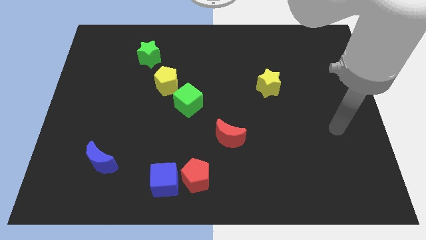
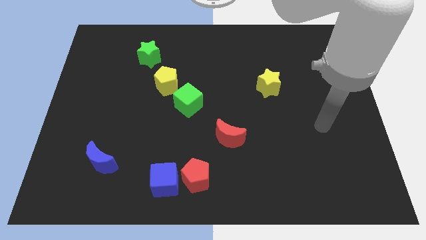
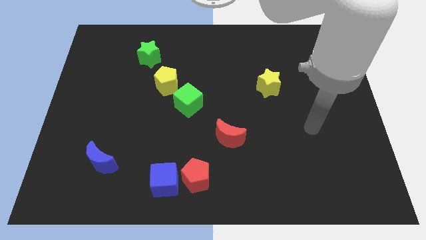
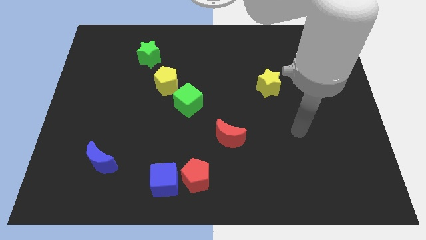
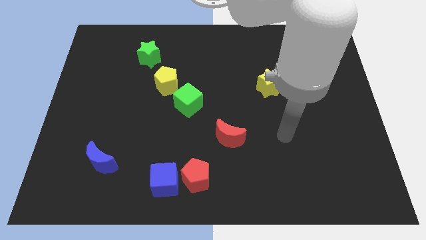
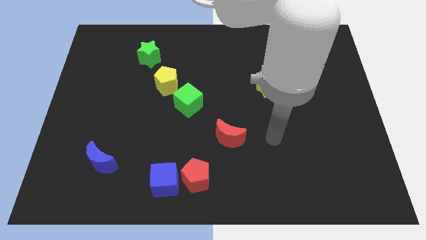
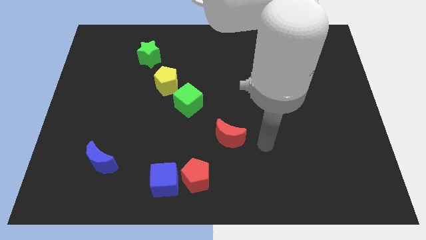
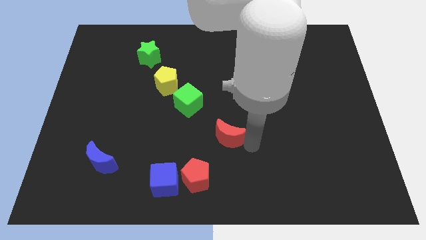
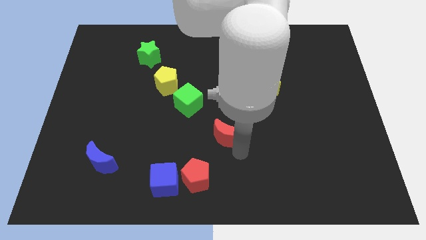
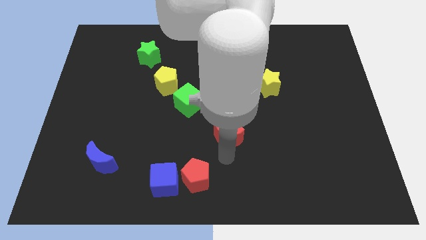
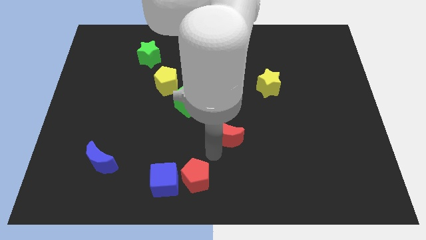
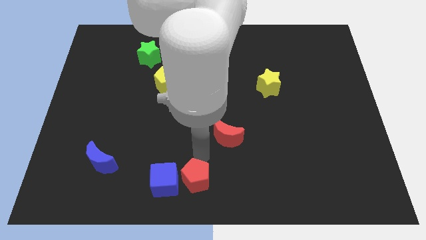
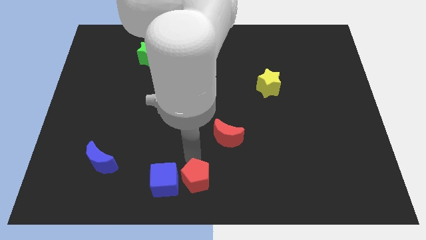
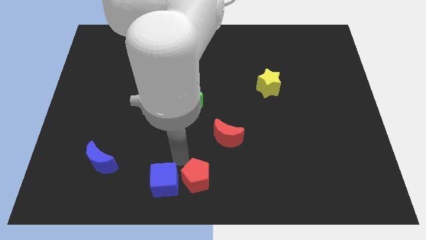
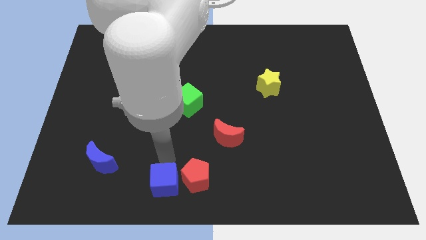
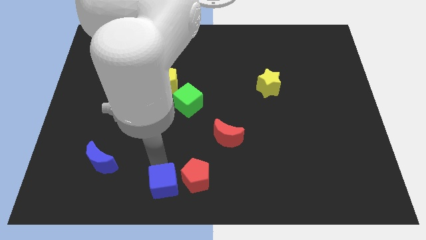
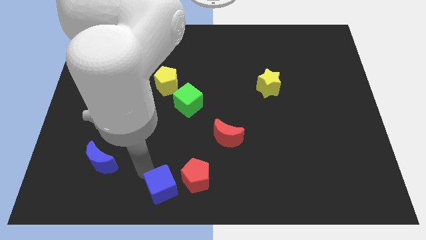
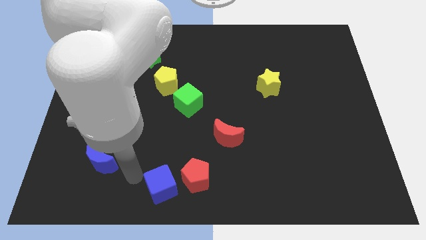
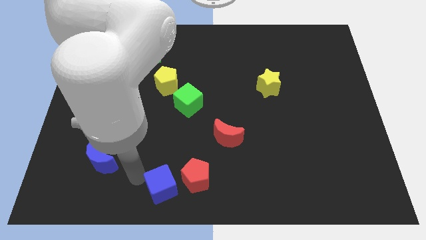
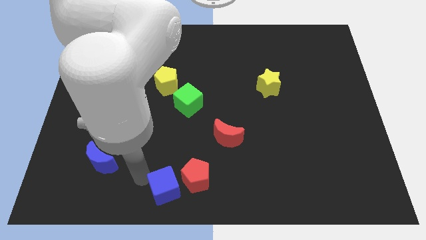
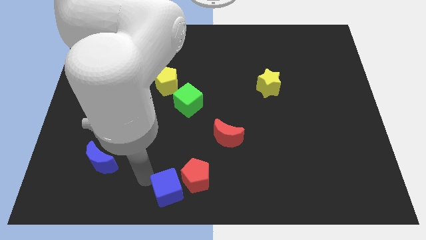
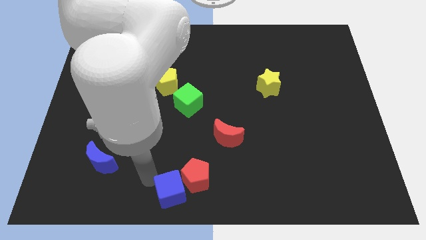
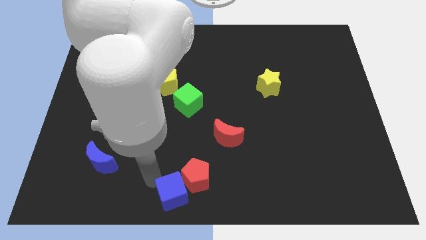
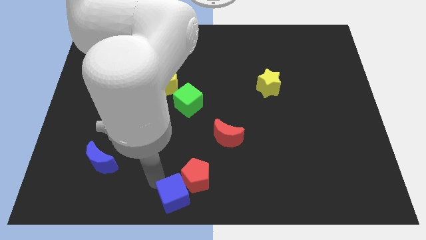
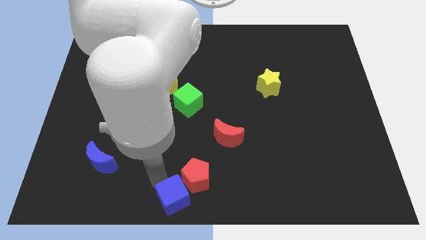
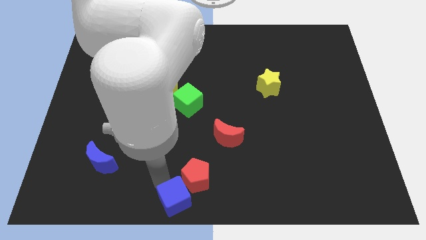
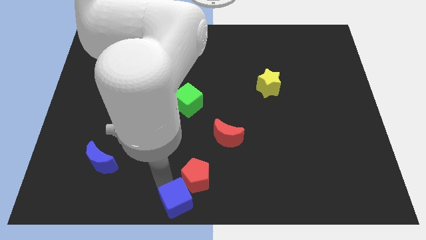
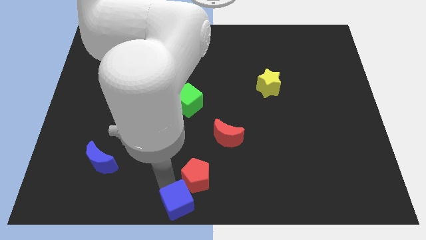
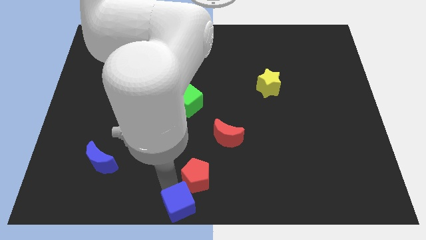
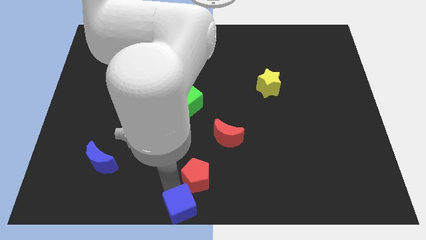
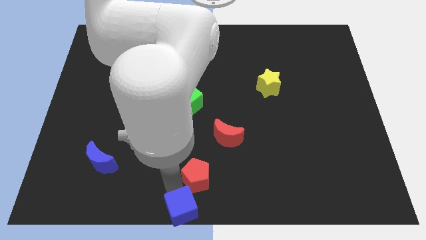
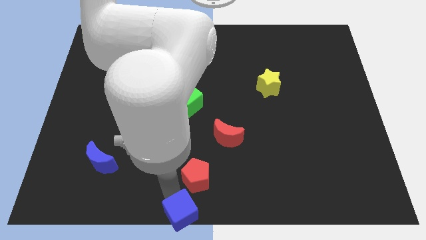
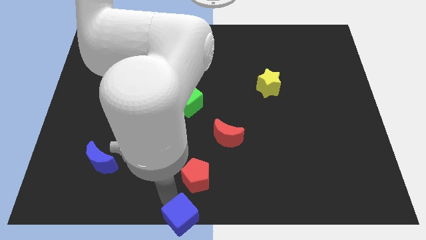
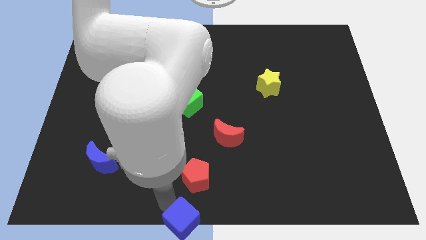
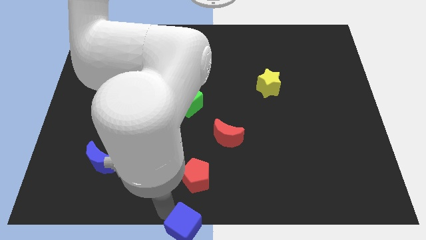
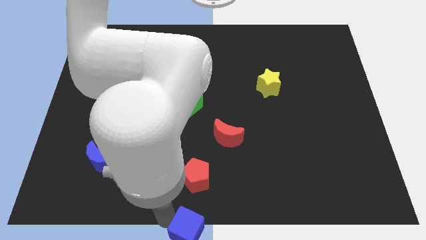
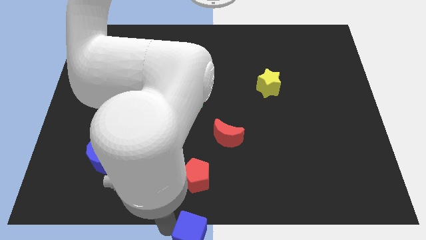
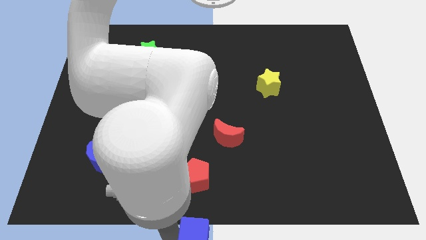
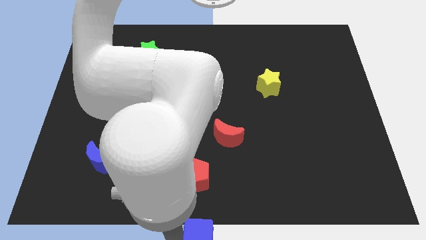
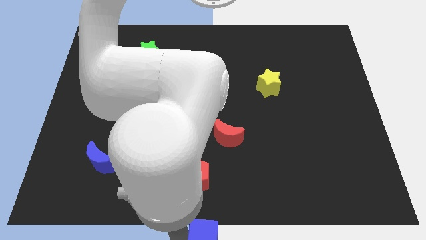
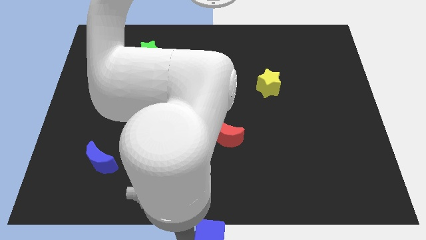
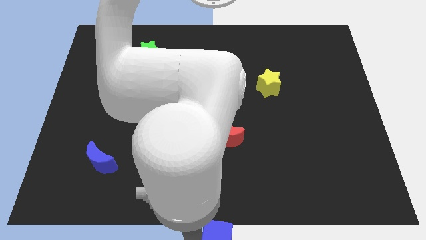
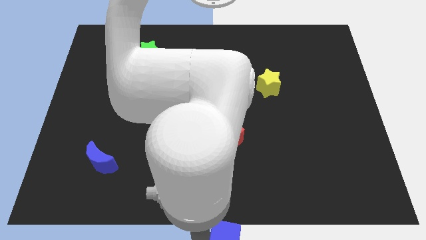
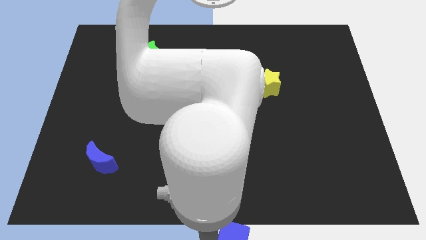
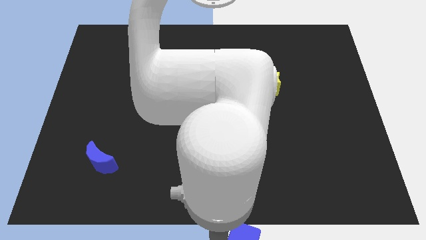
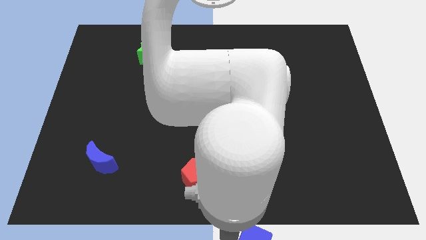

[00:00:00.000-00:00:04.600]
push the blue cube a bit right

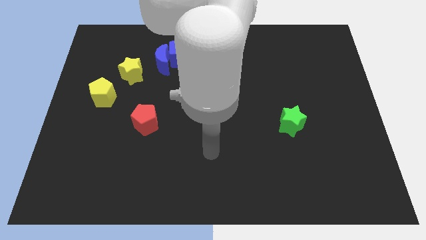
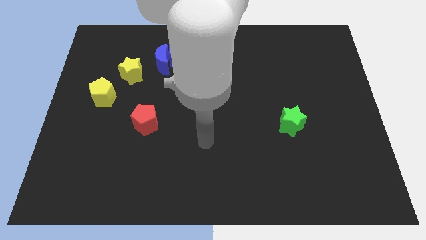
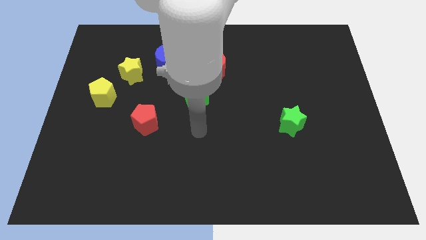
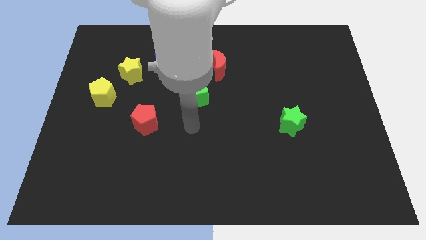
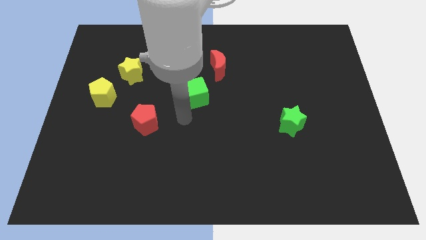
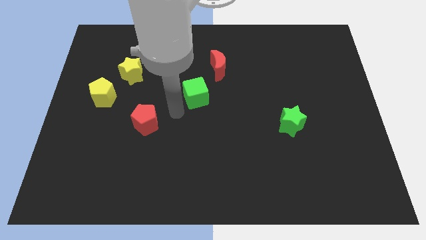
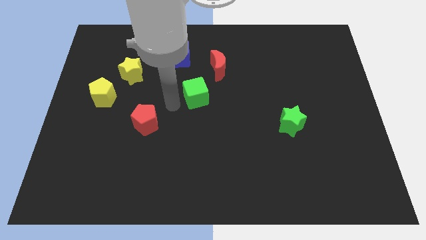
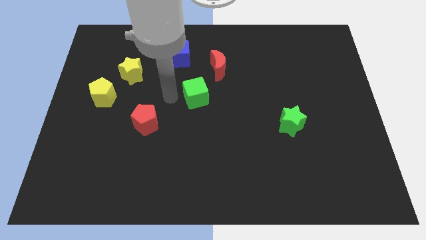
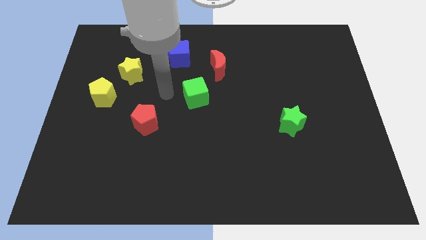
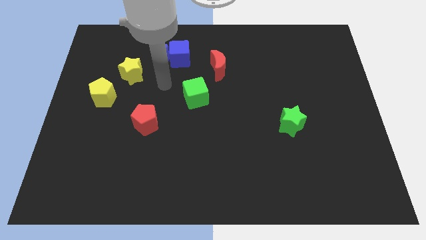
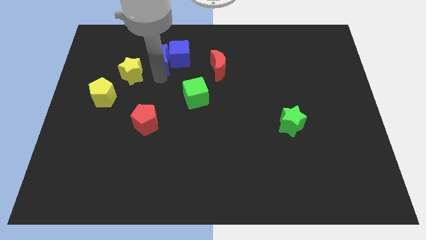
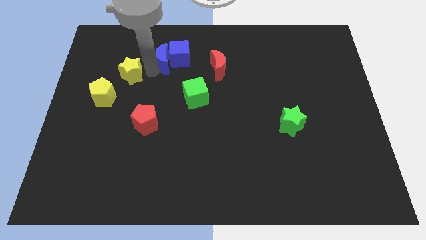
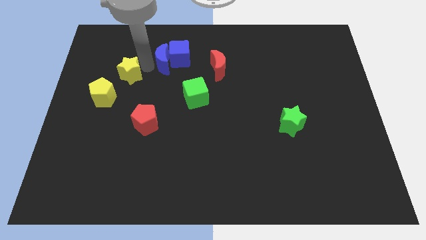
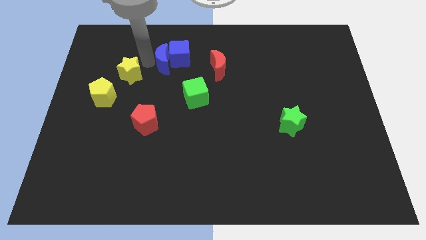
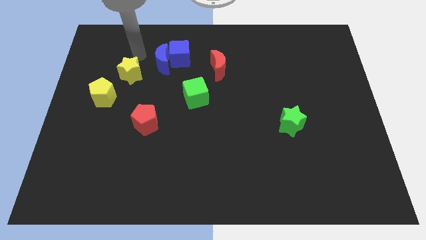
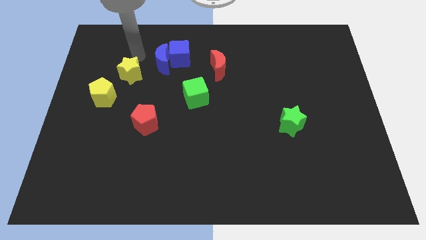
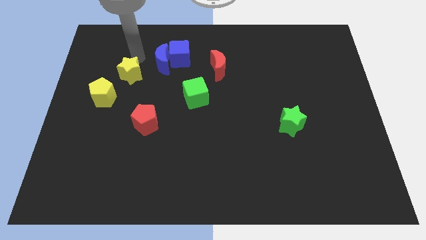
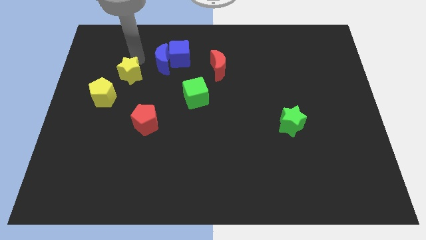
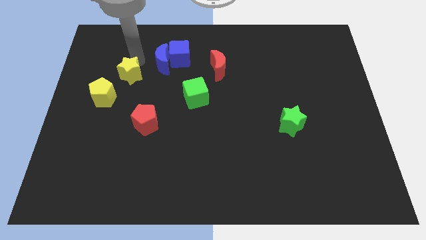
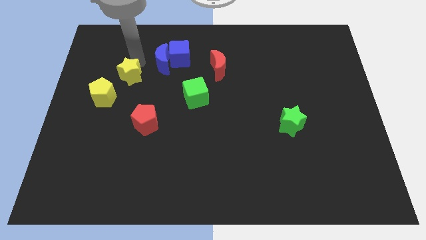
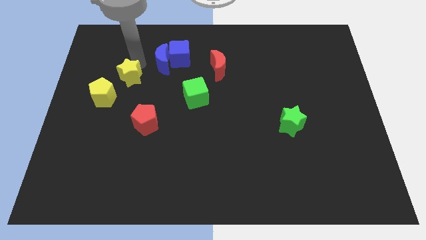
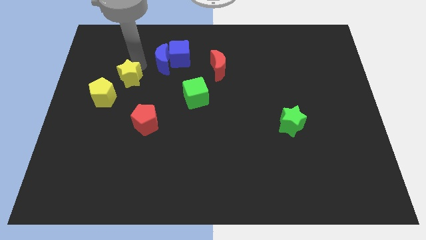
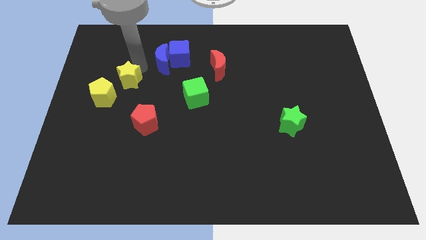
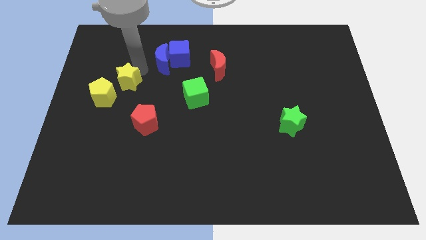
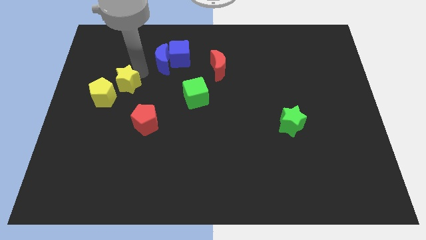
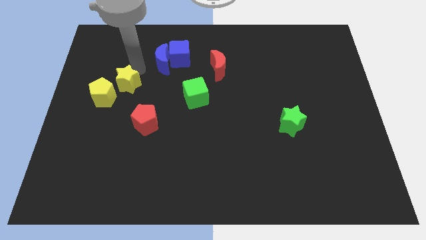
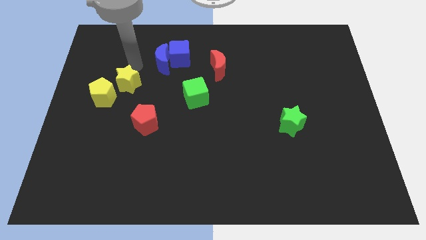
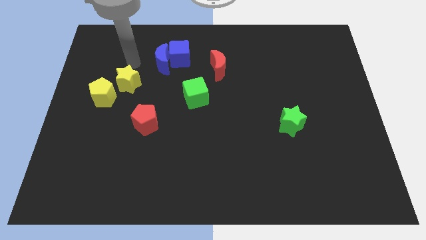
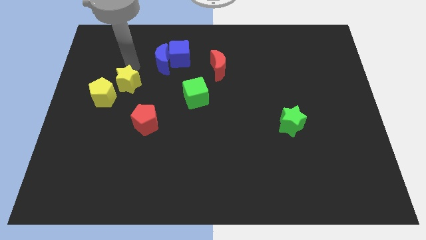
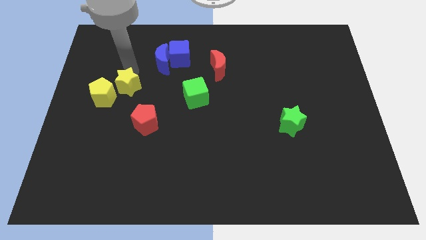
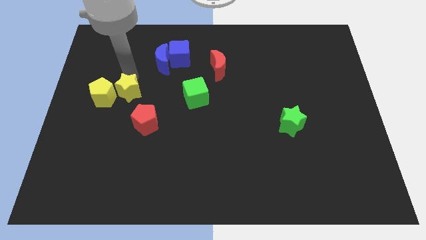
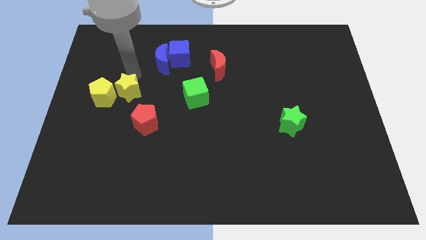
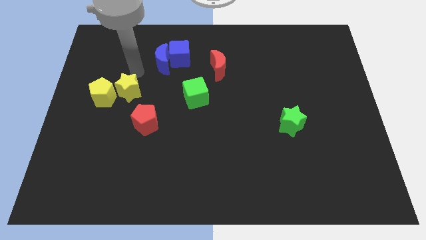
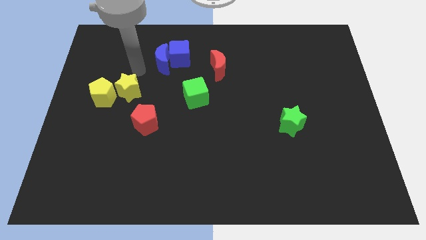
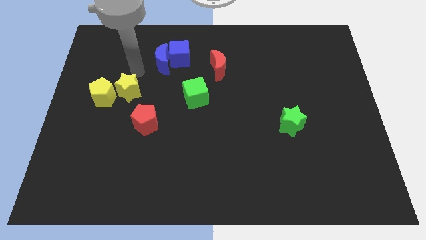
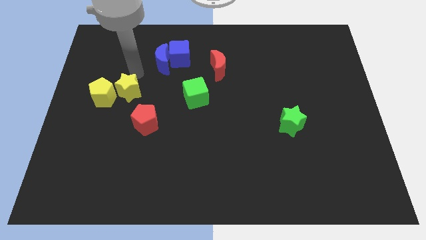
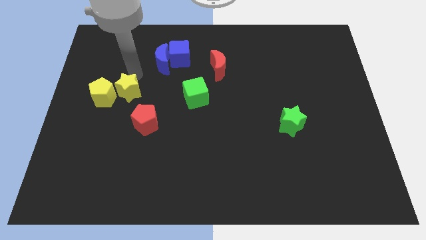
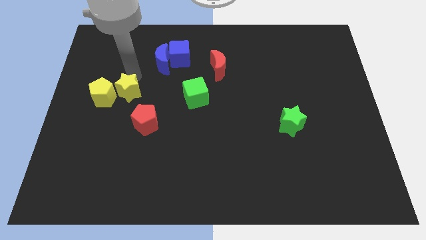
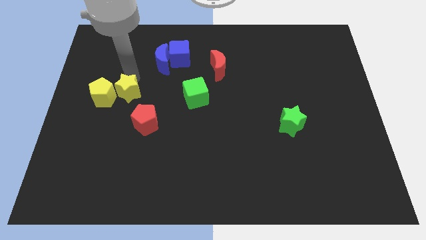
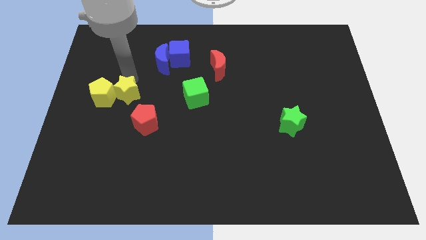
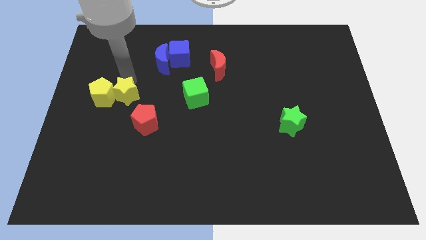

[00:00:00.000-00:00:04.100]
push the yellow star slightly downwards
